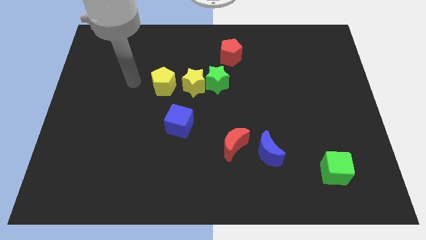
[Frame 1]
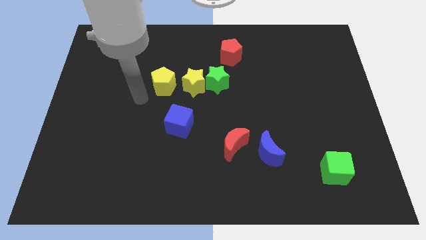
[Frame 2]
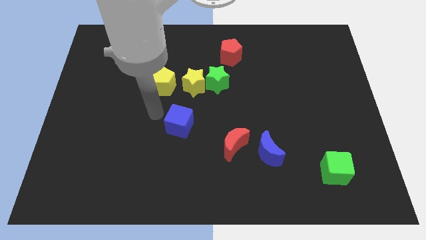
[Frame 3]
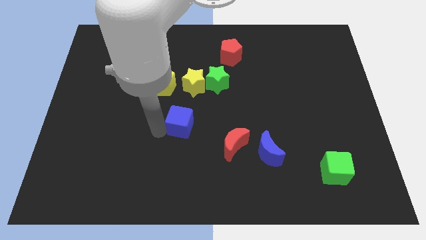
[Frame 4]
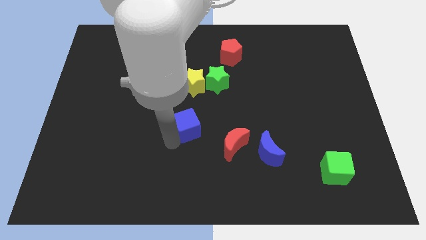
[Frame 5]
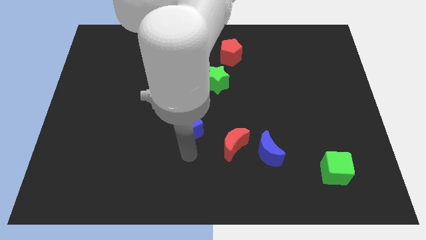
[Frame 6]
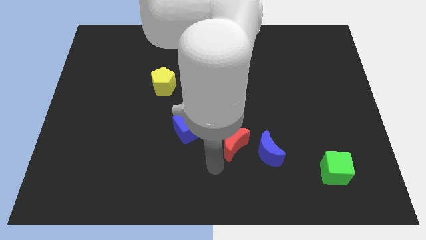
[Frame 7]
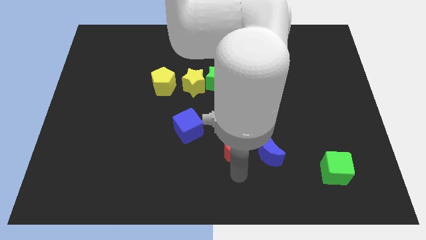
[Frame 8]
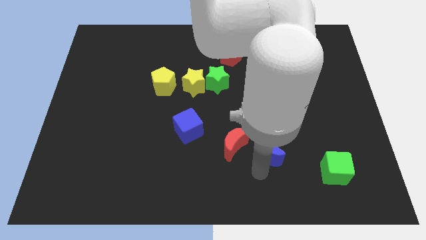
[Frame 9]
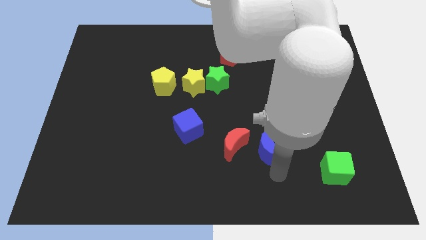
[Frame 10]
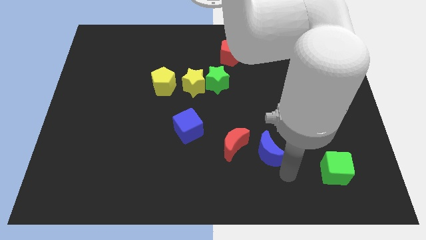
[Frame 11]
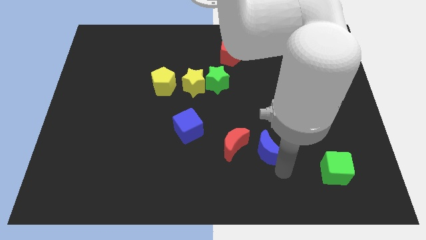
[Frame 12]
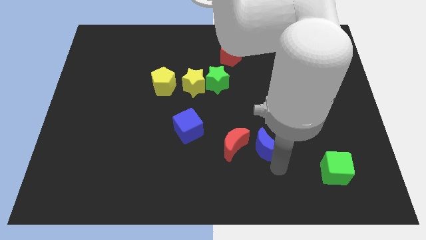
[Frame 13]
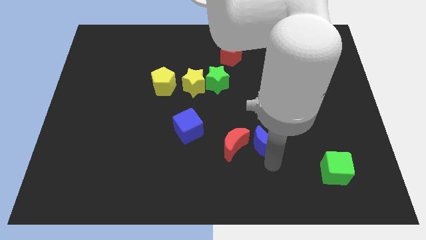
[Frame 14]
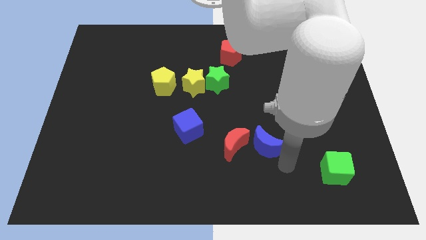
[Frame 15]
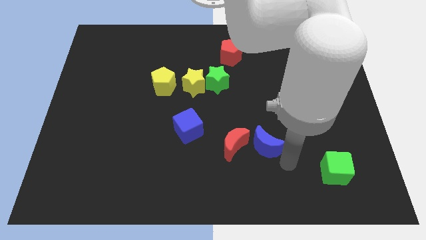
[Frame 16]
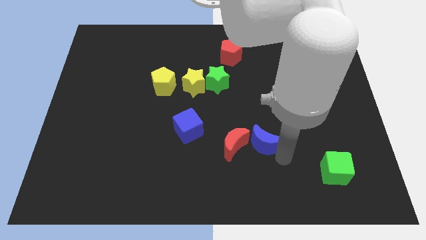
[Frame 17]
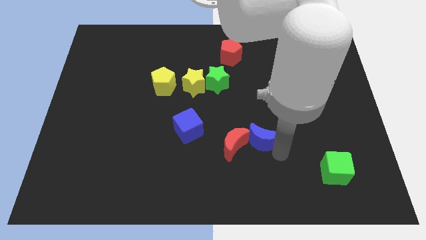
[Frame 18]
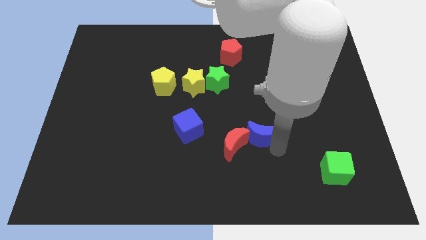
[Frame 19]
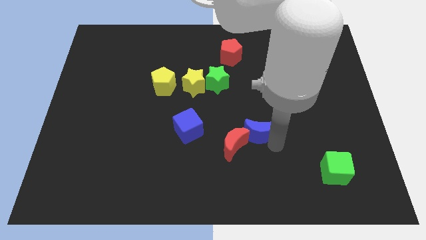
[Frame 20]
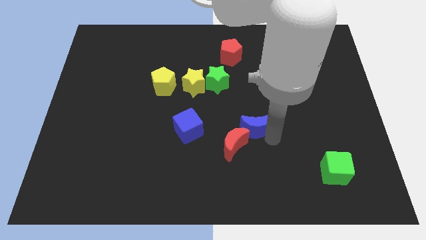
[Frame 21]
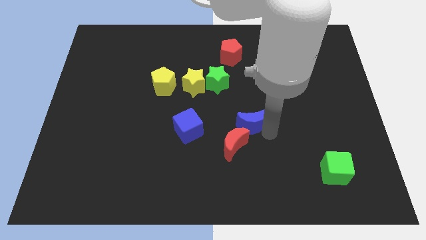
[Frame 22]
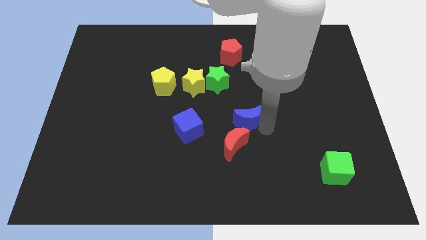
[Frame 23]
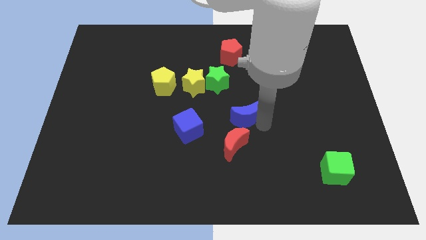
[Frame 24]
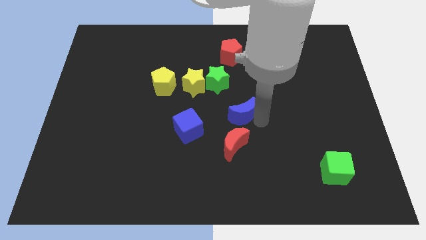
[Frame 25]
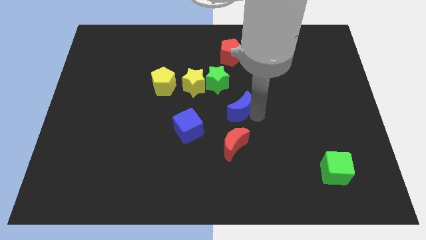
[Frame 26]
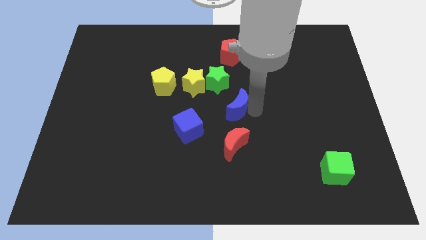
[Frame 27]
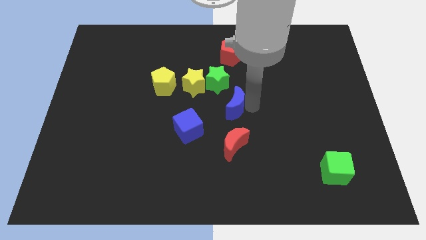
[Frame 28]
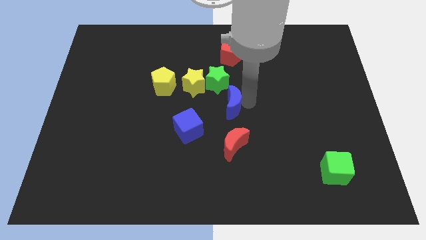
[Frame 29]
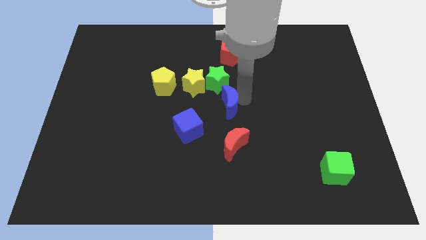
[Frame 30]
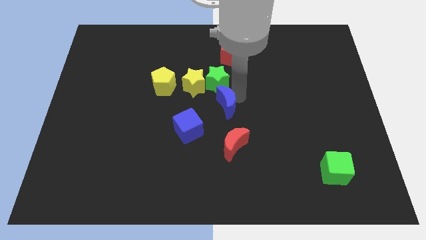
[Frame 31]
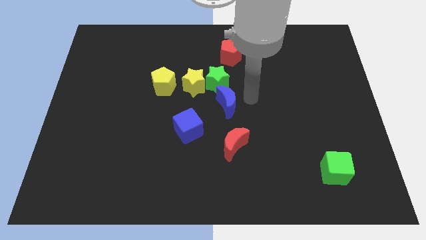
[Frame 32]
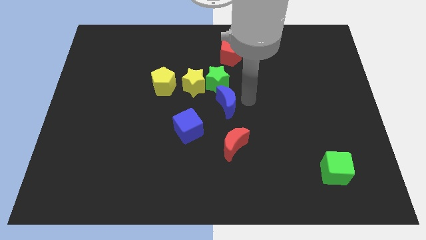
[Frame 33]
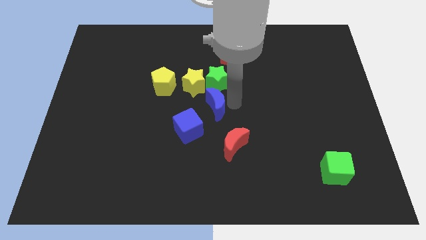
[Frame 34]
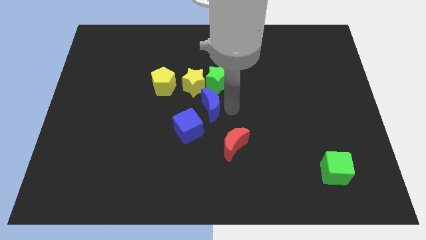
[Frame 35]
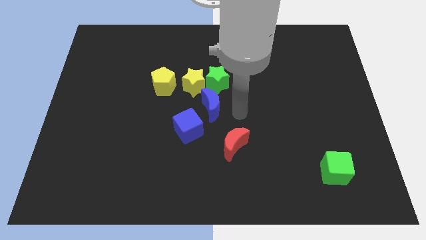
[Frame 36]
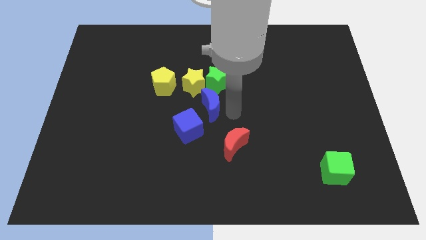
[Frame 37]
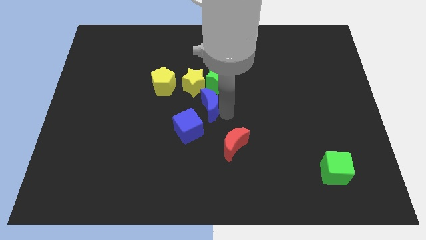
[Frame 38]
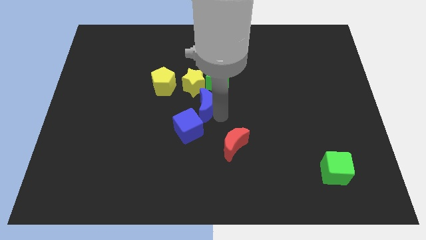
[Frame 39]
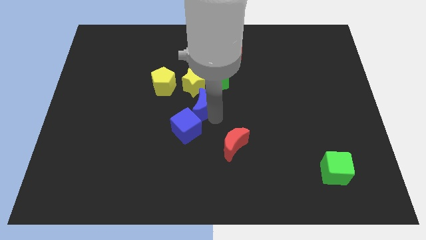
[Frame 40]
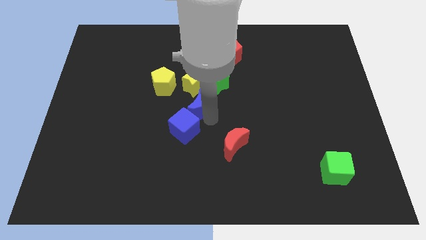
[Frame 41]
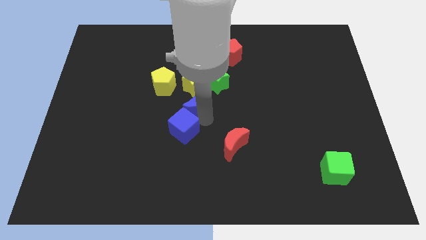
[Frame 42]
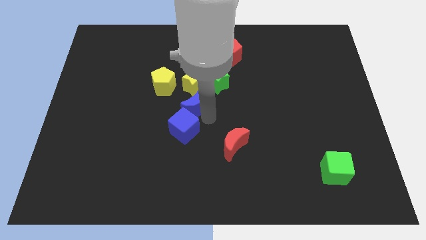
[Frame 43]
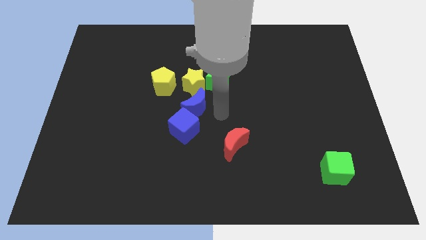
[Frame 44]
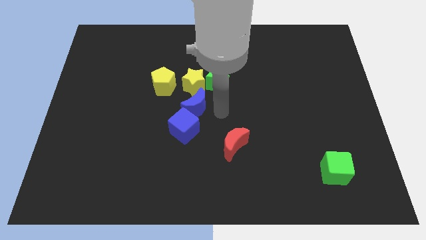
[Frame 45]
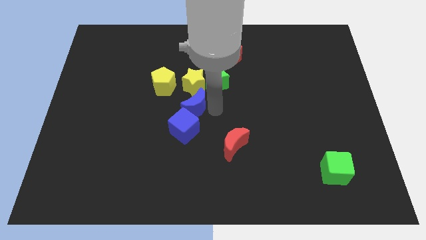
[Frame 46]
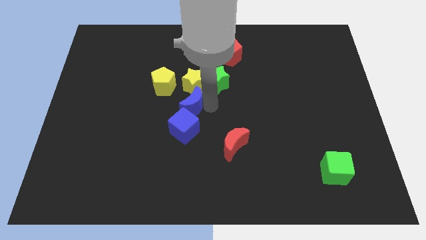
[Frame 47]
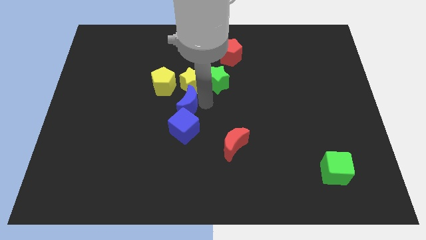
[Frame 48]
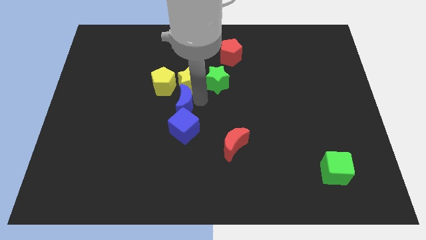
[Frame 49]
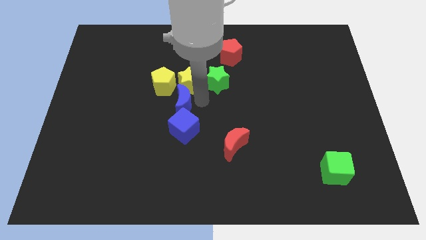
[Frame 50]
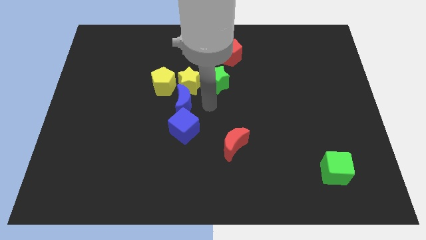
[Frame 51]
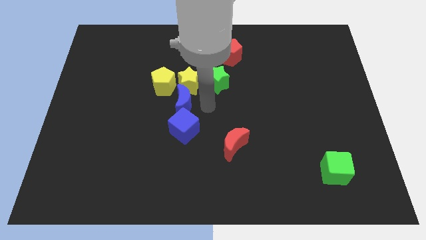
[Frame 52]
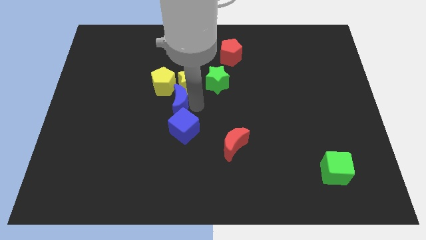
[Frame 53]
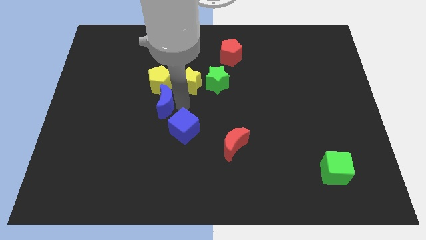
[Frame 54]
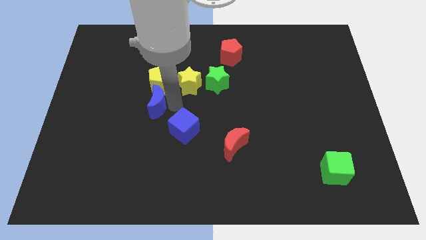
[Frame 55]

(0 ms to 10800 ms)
push the blue moon diagonally down and to the left of the yellow pentagon
